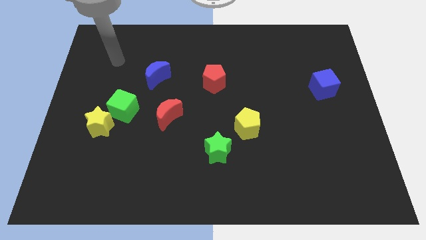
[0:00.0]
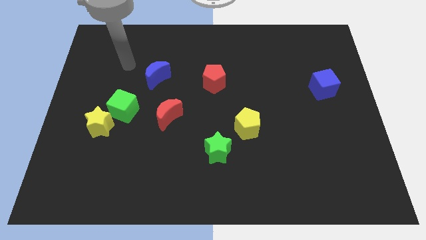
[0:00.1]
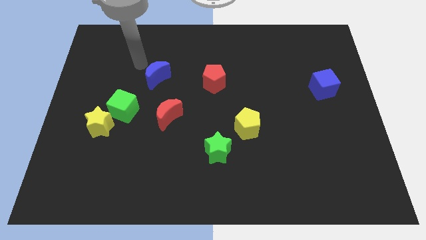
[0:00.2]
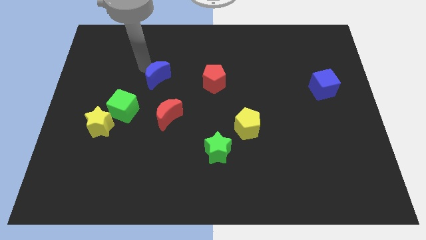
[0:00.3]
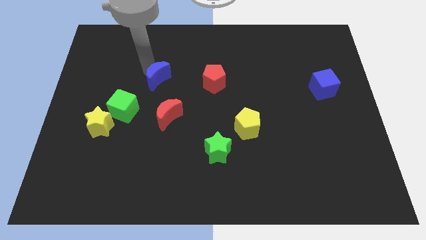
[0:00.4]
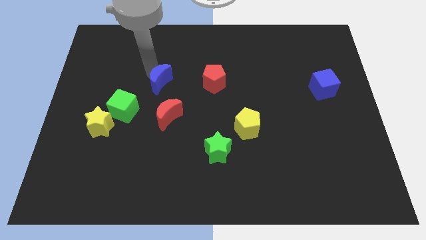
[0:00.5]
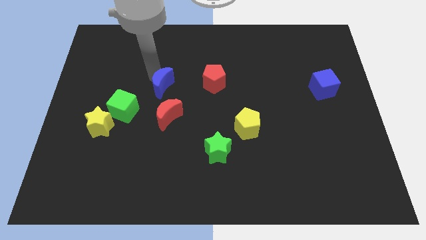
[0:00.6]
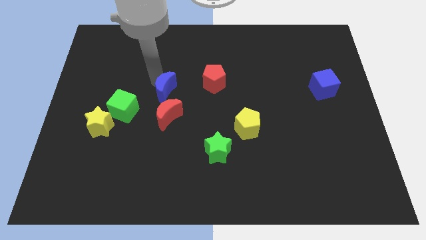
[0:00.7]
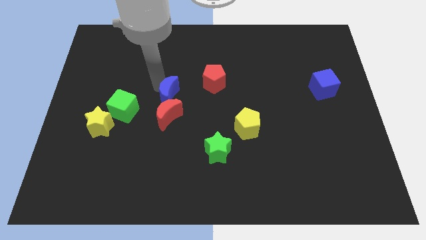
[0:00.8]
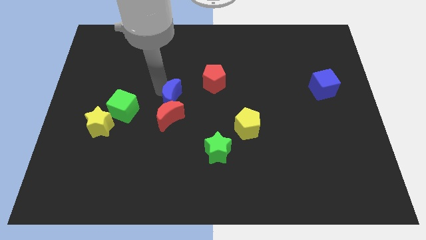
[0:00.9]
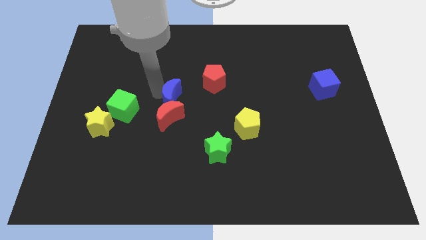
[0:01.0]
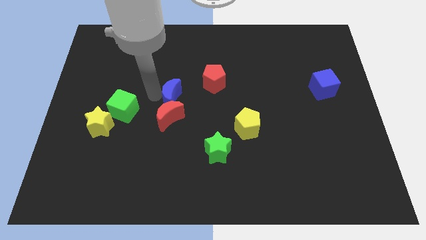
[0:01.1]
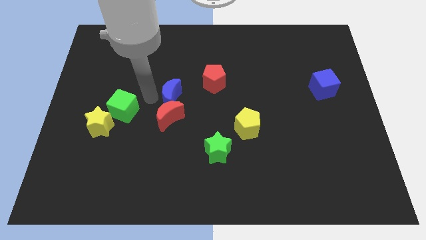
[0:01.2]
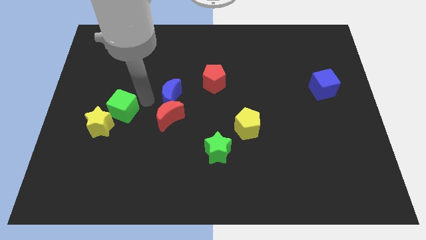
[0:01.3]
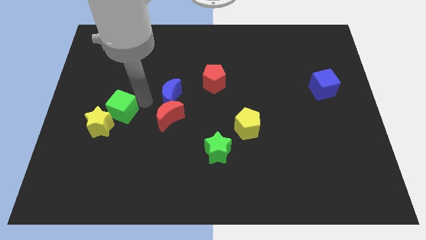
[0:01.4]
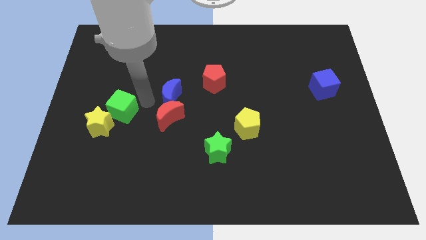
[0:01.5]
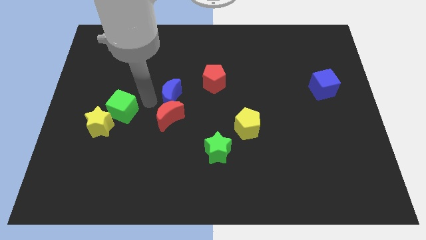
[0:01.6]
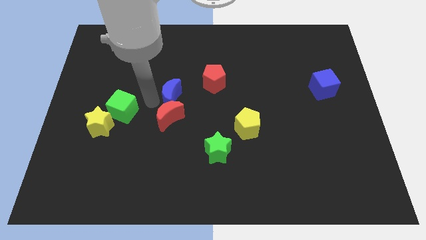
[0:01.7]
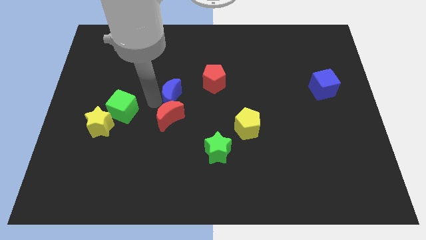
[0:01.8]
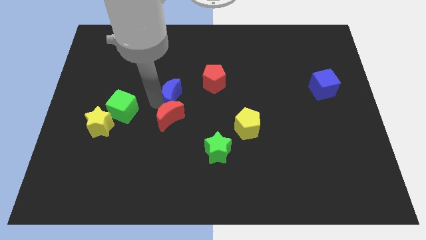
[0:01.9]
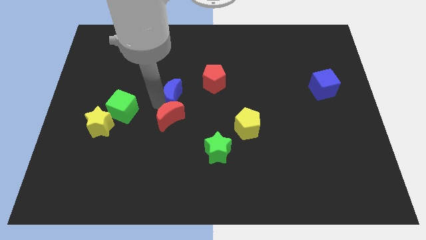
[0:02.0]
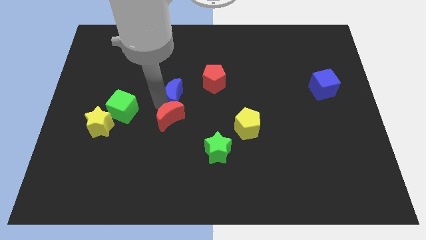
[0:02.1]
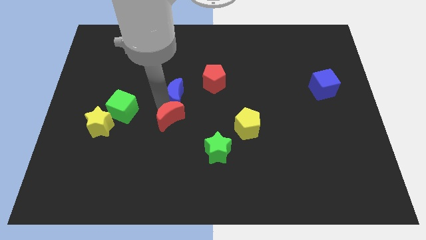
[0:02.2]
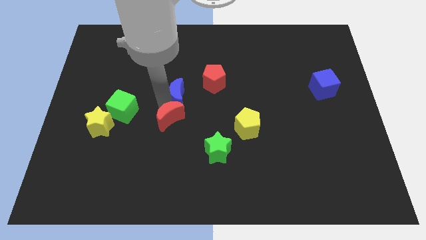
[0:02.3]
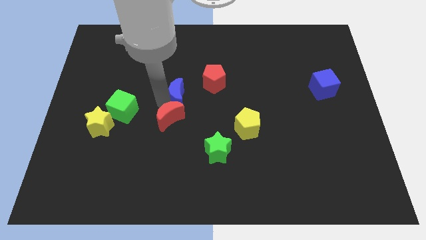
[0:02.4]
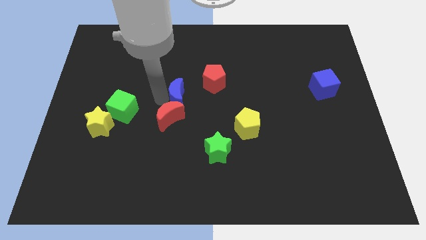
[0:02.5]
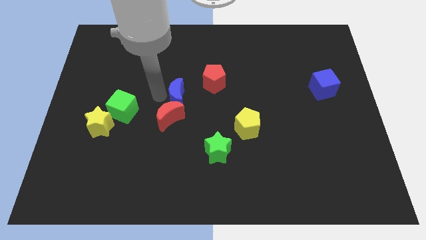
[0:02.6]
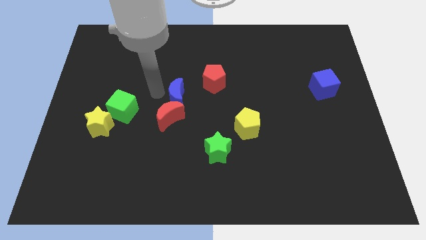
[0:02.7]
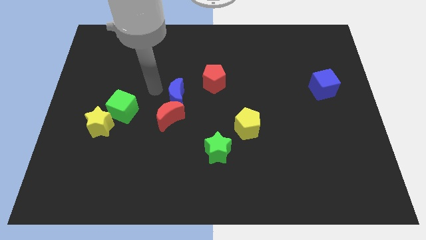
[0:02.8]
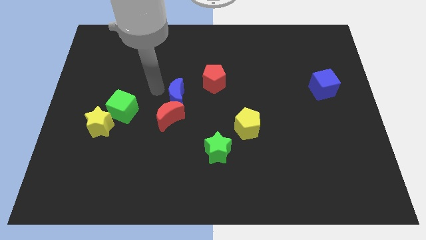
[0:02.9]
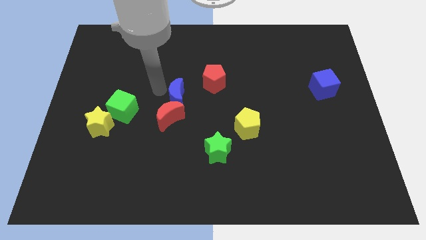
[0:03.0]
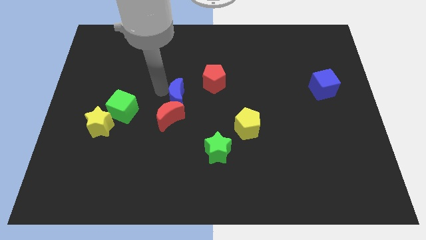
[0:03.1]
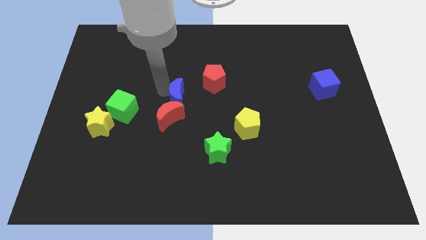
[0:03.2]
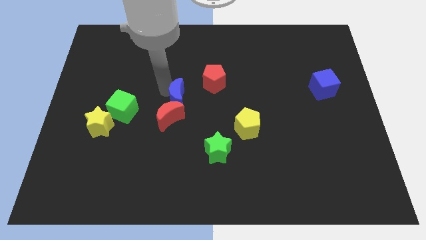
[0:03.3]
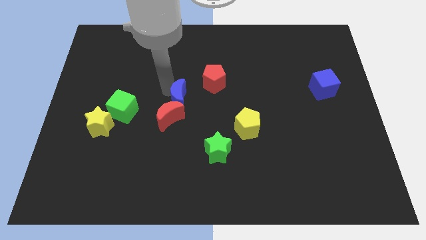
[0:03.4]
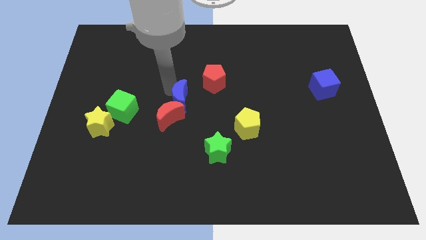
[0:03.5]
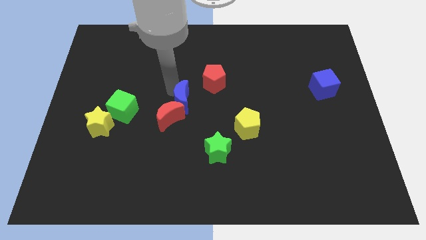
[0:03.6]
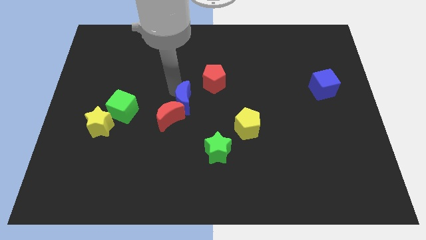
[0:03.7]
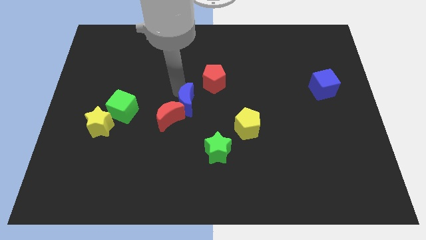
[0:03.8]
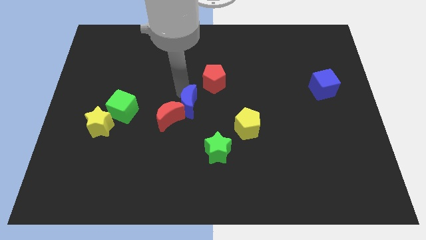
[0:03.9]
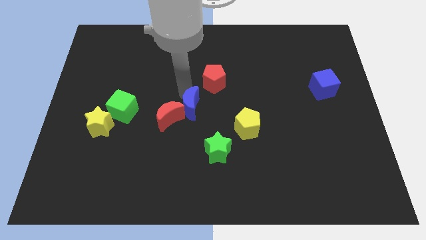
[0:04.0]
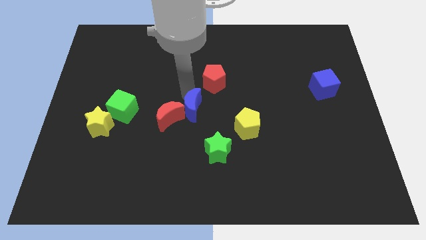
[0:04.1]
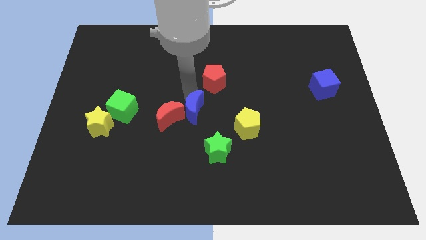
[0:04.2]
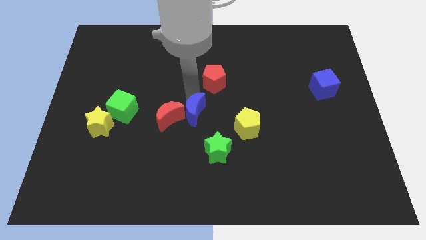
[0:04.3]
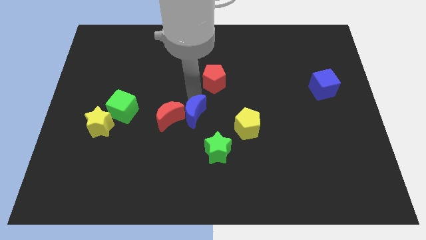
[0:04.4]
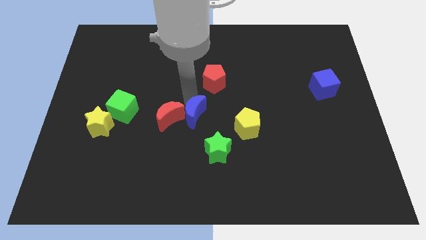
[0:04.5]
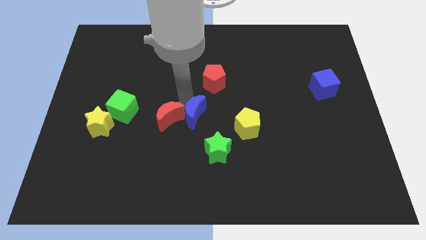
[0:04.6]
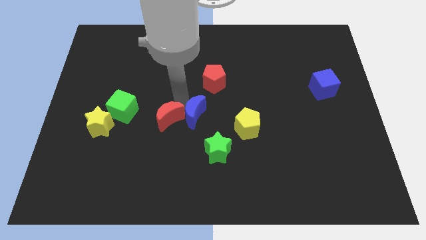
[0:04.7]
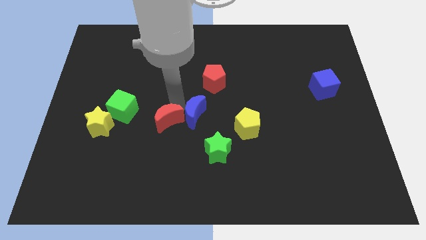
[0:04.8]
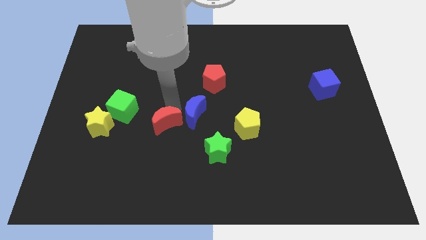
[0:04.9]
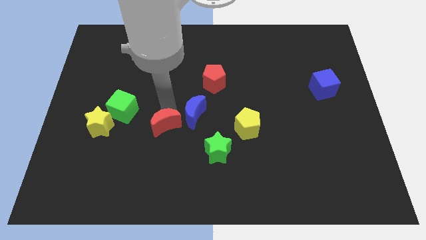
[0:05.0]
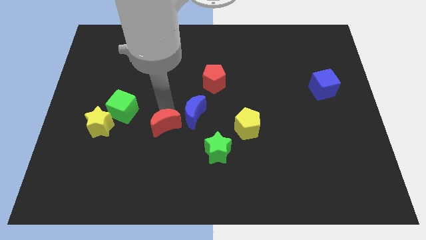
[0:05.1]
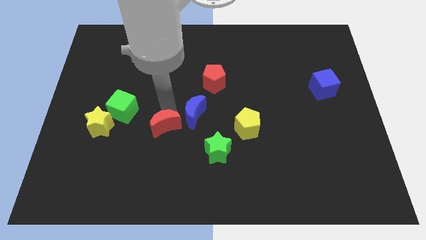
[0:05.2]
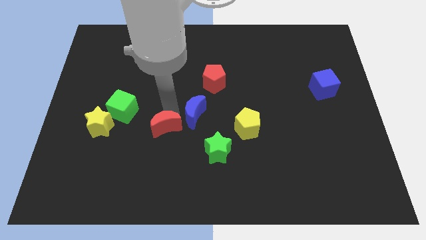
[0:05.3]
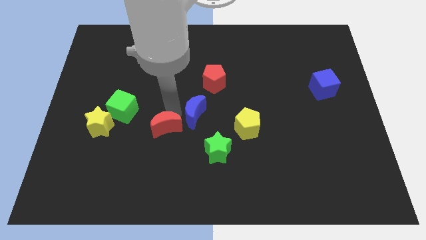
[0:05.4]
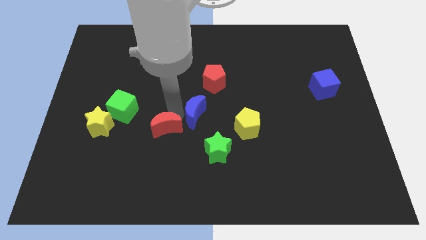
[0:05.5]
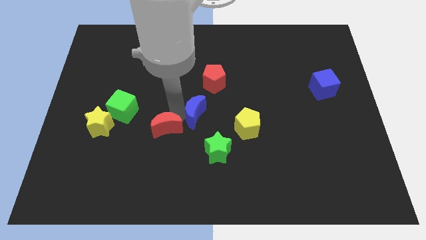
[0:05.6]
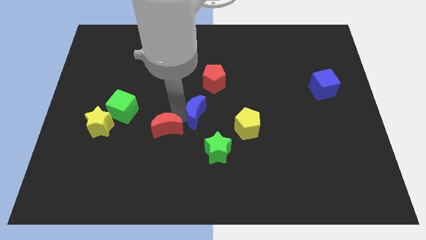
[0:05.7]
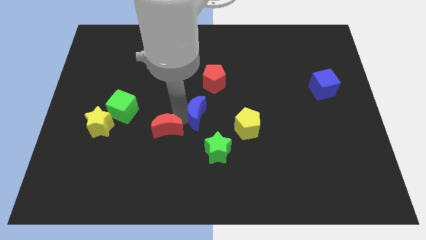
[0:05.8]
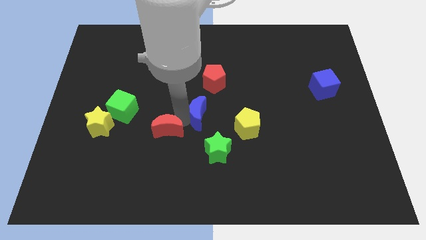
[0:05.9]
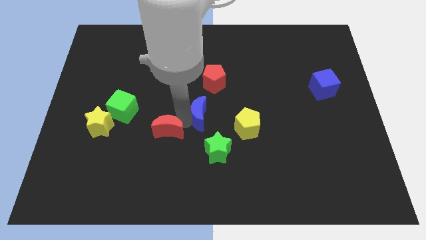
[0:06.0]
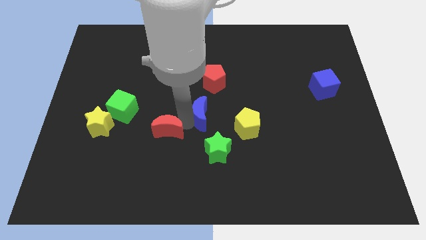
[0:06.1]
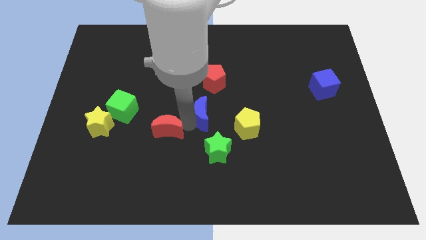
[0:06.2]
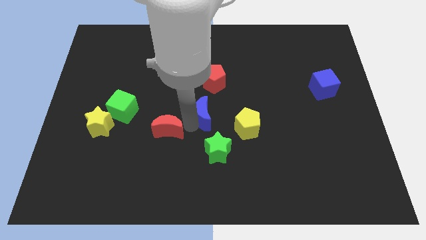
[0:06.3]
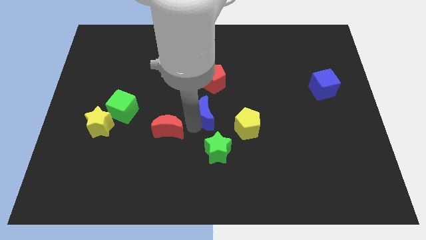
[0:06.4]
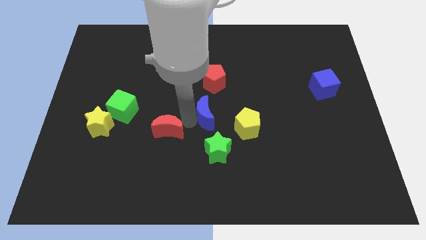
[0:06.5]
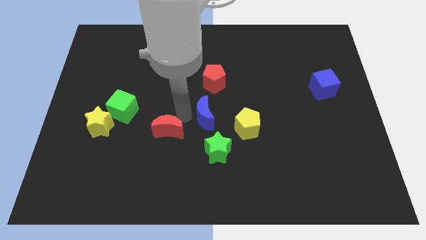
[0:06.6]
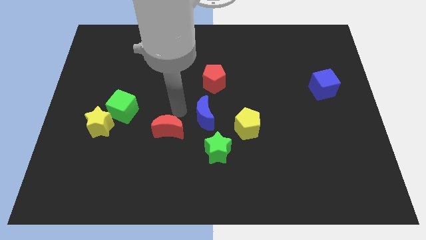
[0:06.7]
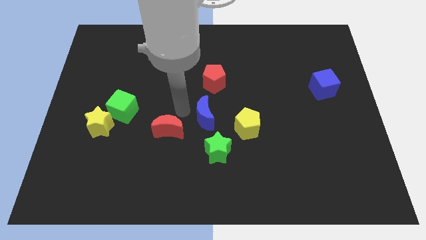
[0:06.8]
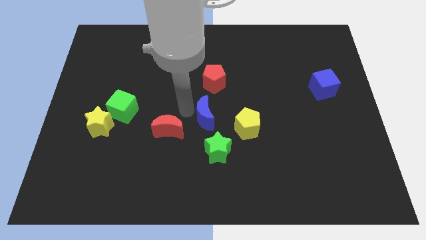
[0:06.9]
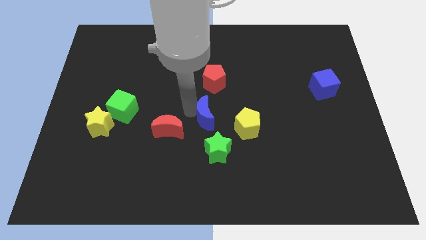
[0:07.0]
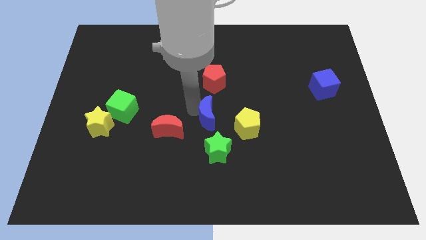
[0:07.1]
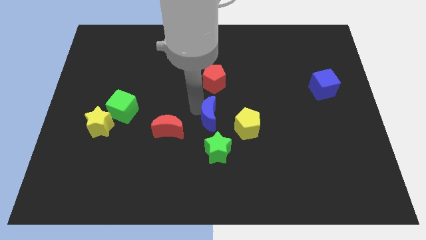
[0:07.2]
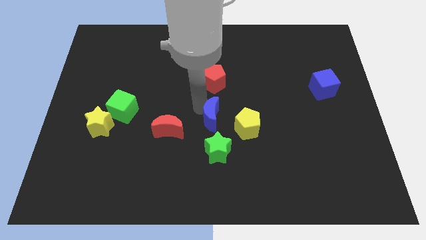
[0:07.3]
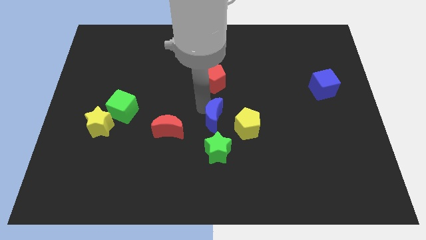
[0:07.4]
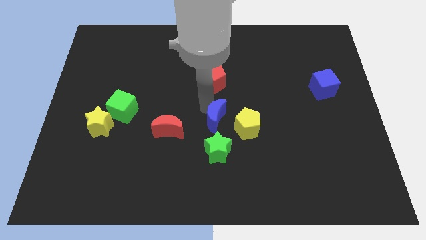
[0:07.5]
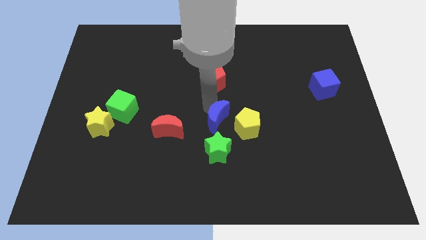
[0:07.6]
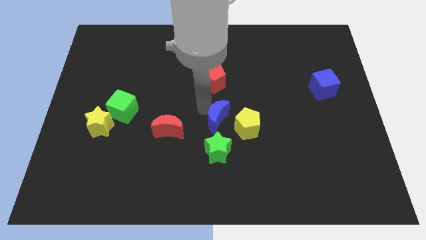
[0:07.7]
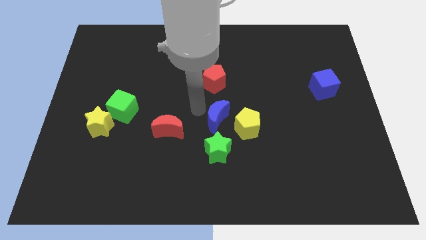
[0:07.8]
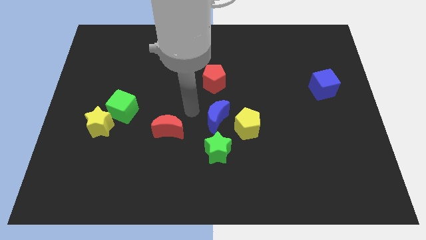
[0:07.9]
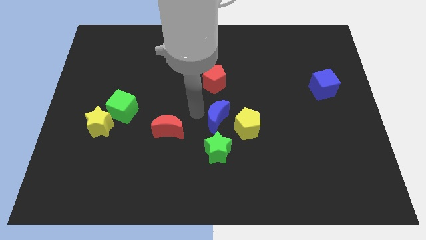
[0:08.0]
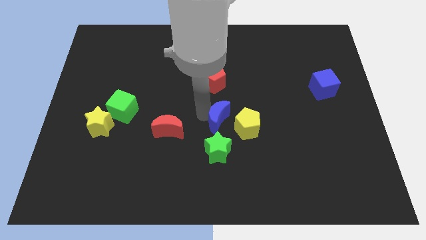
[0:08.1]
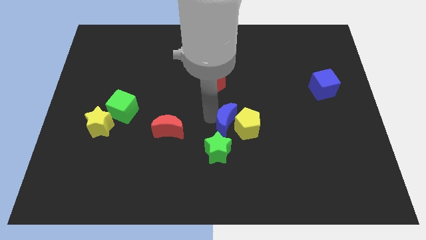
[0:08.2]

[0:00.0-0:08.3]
move the blue moon close to the yellow pentagon
